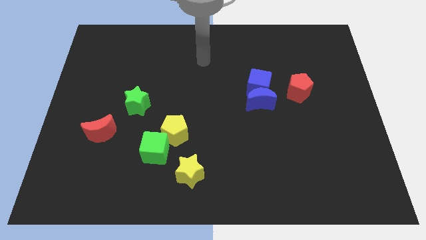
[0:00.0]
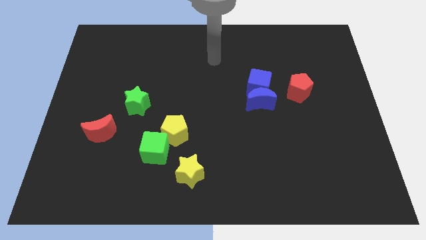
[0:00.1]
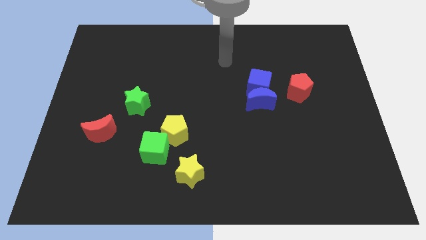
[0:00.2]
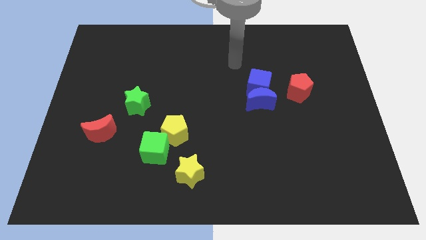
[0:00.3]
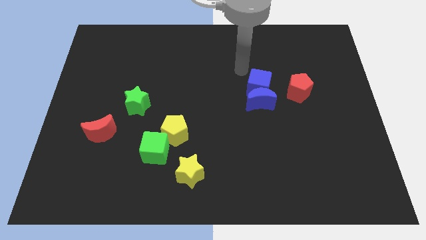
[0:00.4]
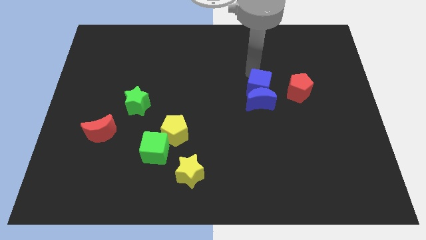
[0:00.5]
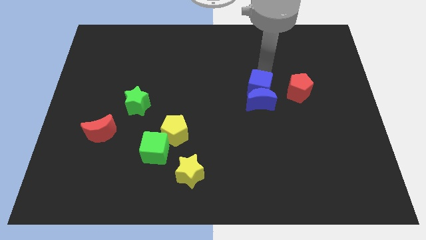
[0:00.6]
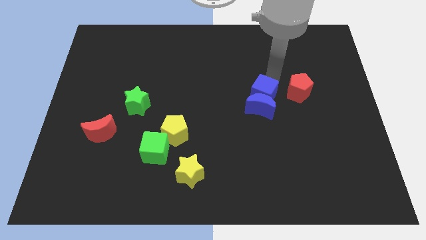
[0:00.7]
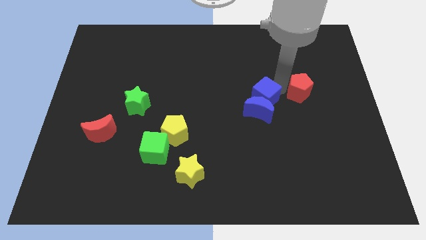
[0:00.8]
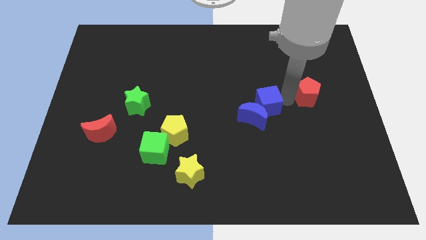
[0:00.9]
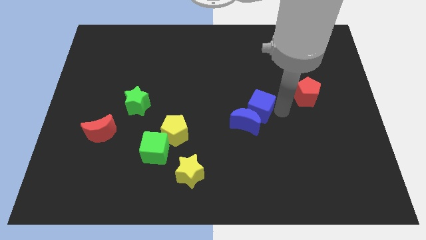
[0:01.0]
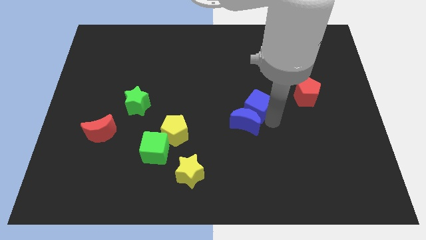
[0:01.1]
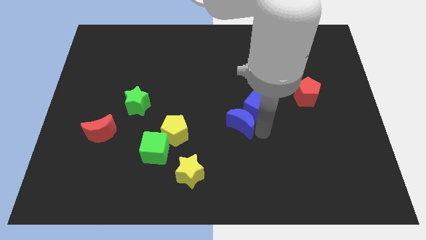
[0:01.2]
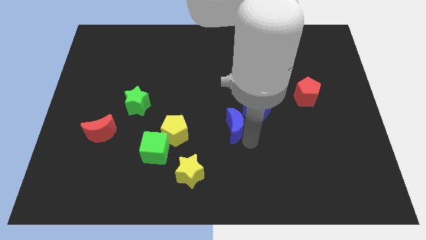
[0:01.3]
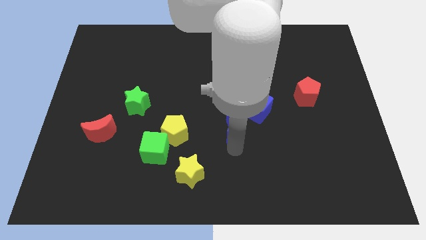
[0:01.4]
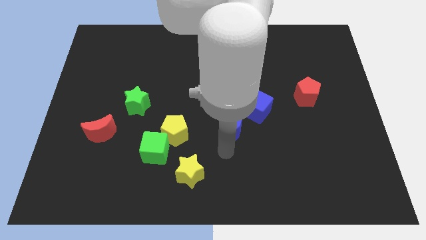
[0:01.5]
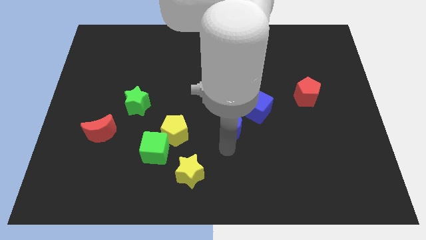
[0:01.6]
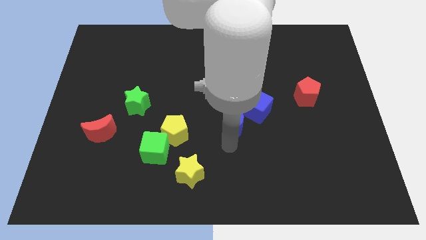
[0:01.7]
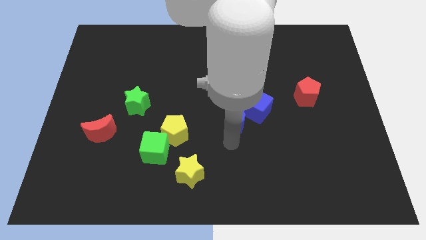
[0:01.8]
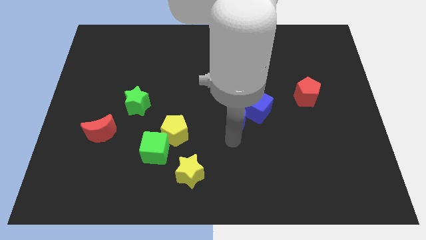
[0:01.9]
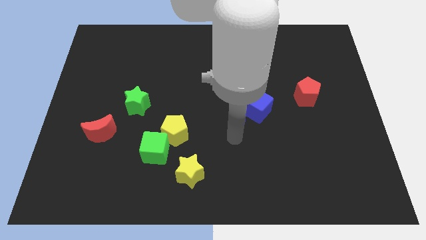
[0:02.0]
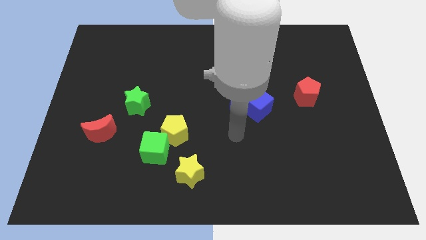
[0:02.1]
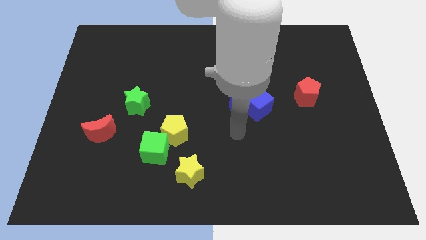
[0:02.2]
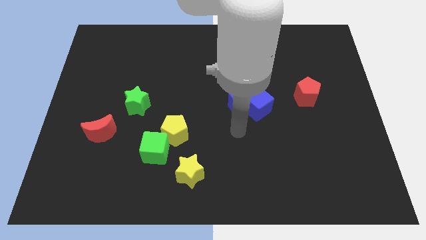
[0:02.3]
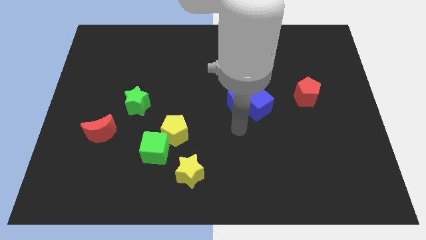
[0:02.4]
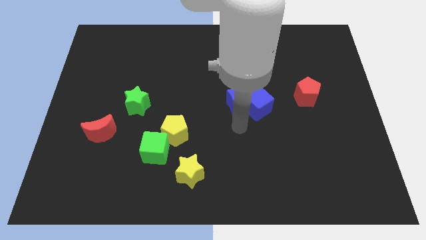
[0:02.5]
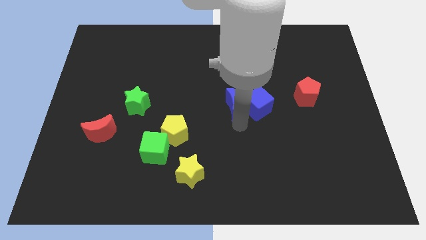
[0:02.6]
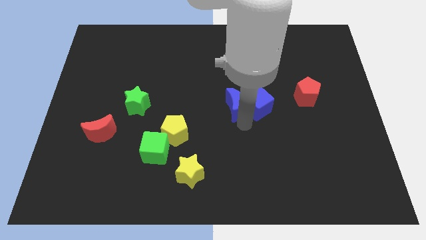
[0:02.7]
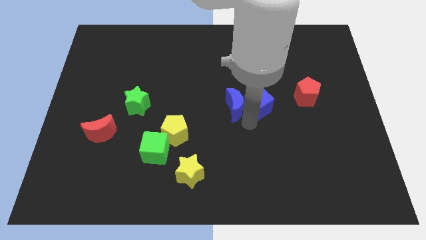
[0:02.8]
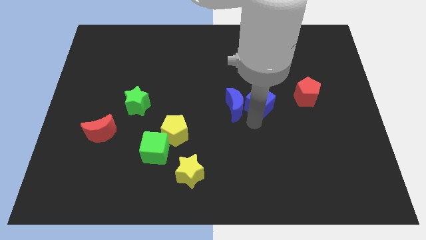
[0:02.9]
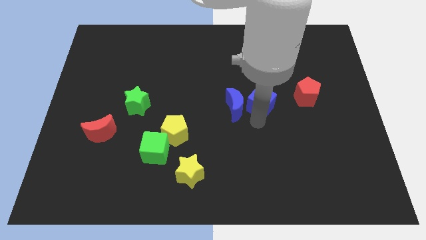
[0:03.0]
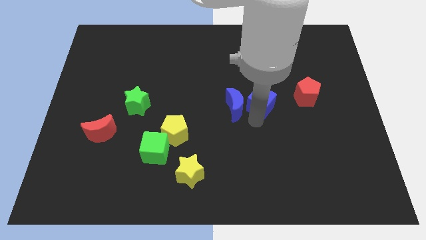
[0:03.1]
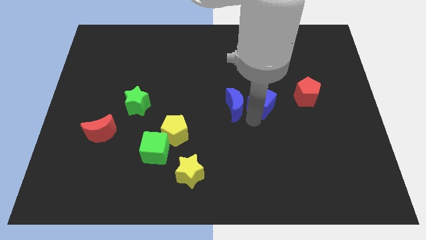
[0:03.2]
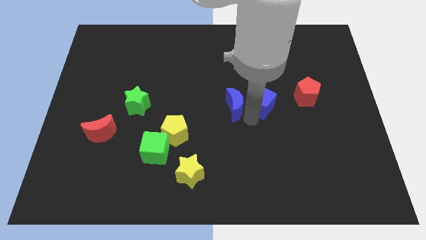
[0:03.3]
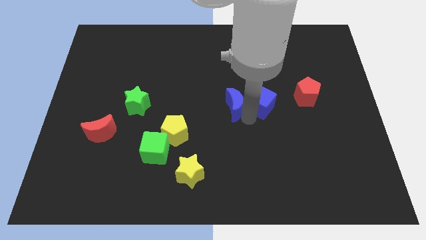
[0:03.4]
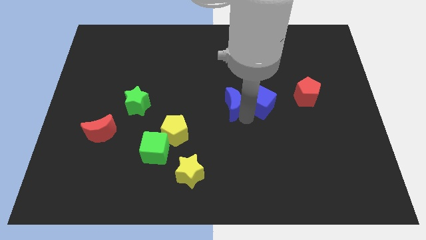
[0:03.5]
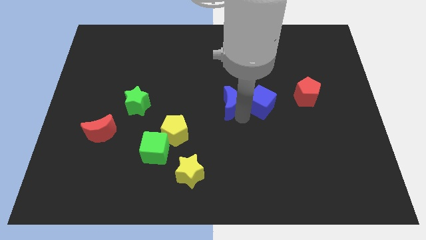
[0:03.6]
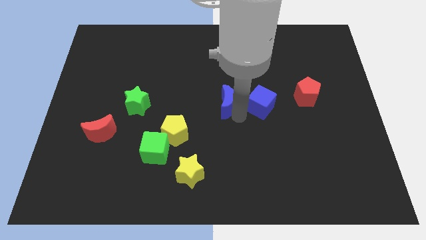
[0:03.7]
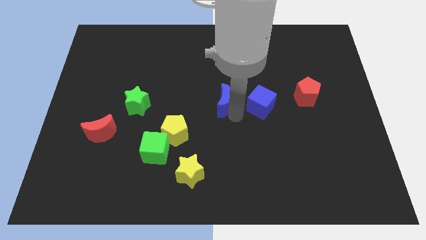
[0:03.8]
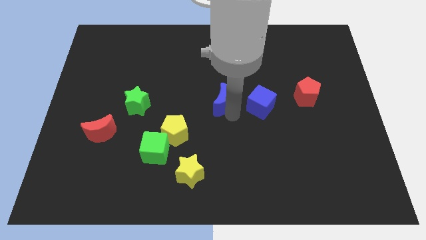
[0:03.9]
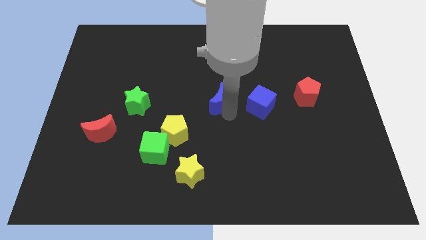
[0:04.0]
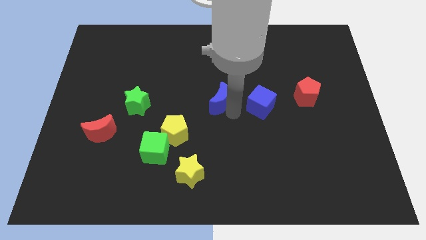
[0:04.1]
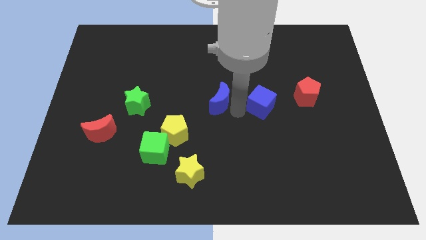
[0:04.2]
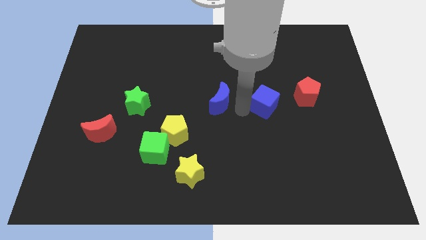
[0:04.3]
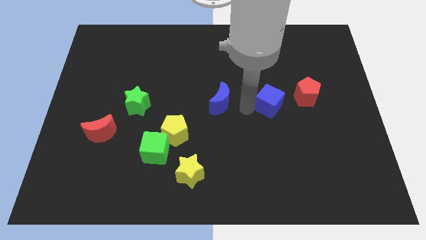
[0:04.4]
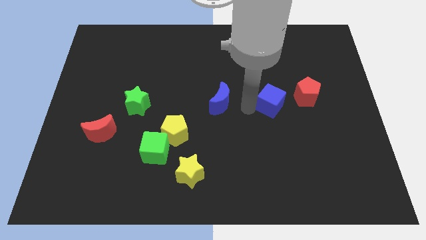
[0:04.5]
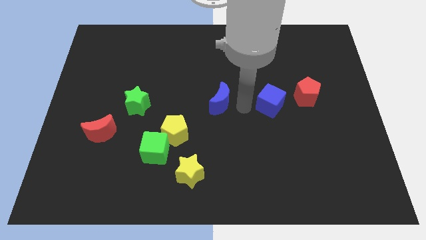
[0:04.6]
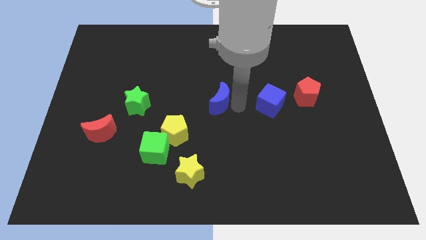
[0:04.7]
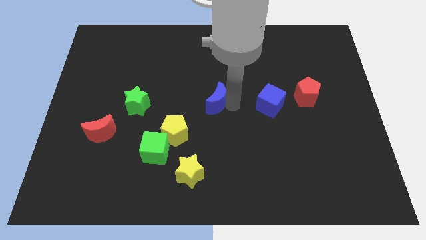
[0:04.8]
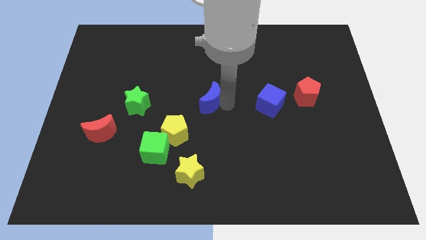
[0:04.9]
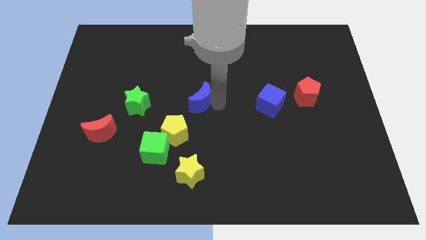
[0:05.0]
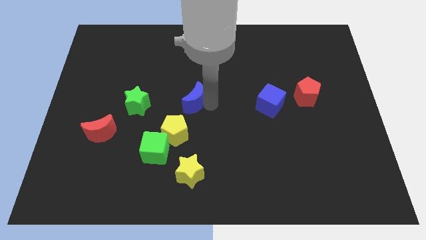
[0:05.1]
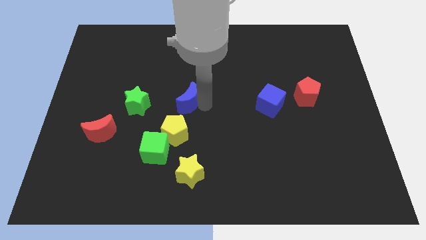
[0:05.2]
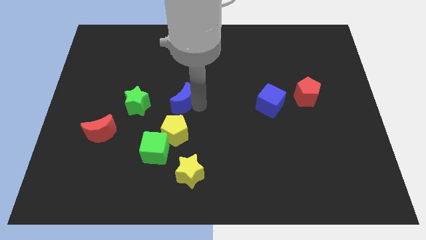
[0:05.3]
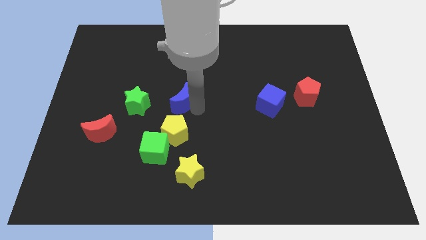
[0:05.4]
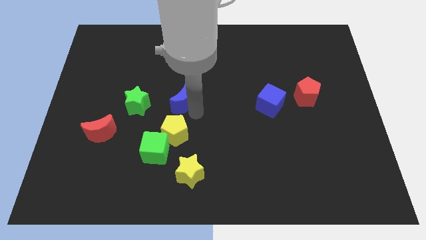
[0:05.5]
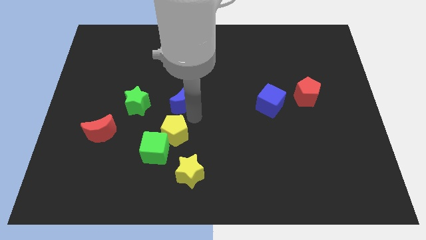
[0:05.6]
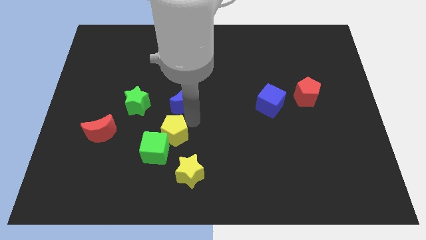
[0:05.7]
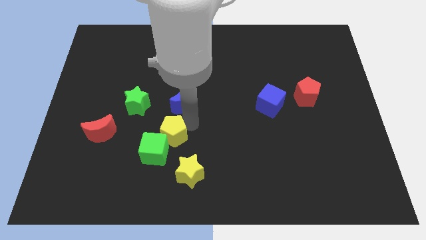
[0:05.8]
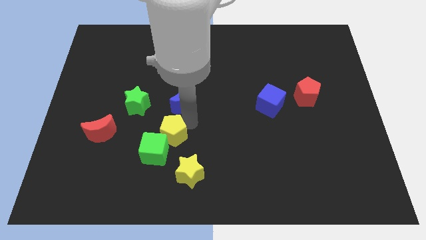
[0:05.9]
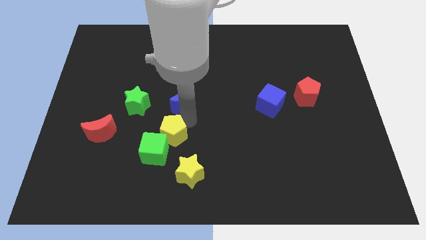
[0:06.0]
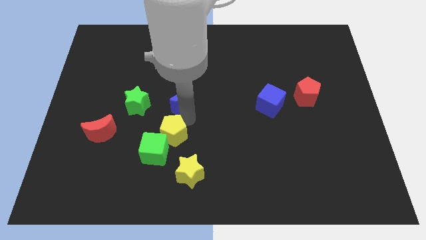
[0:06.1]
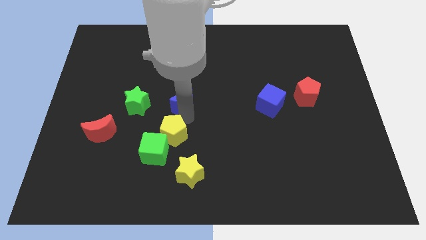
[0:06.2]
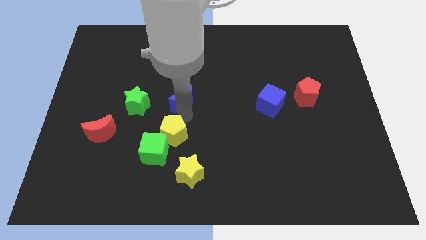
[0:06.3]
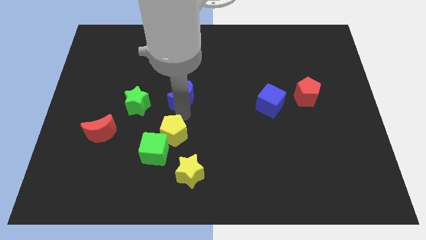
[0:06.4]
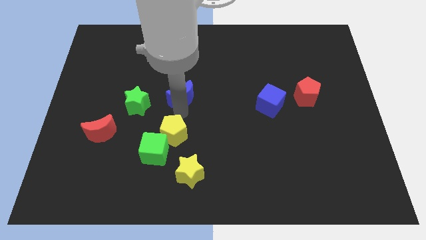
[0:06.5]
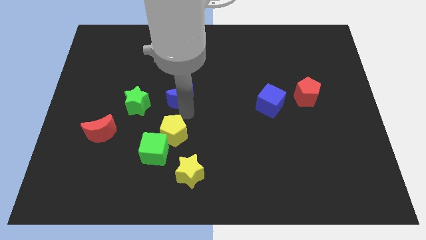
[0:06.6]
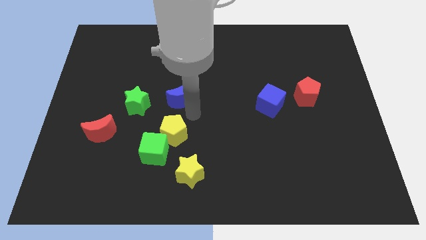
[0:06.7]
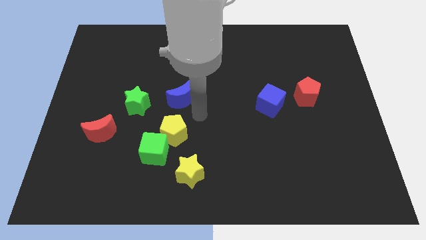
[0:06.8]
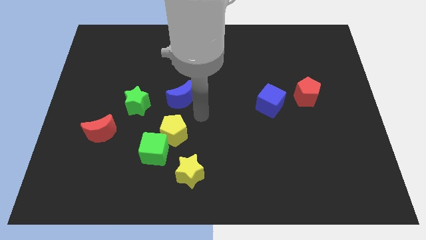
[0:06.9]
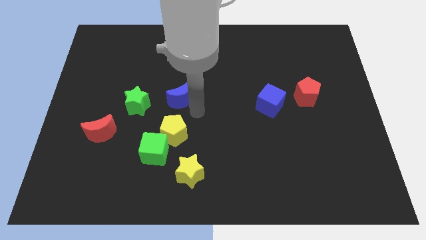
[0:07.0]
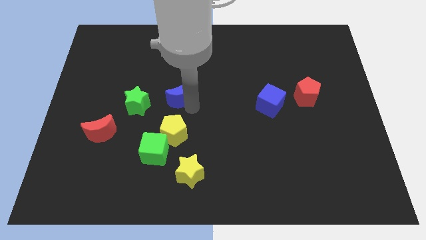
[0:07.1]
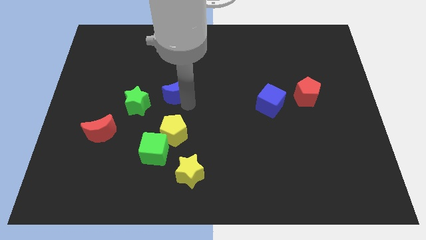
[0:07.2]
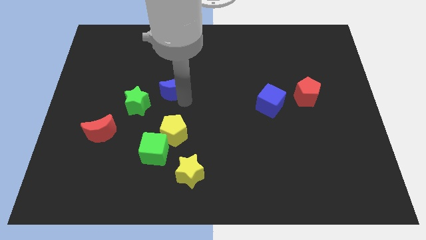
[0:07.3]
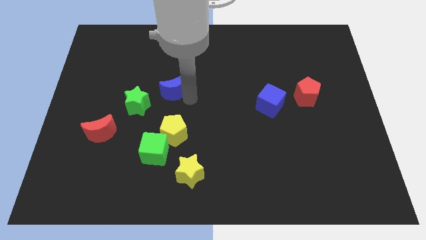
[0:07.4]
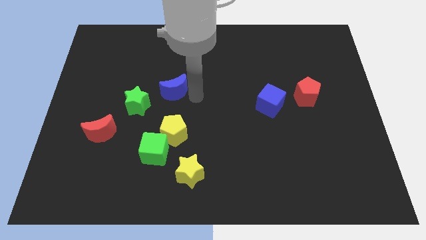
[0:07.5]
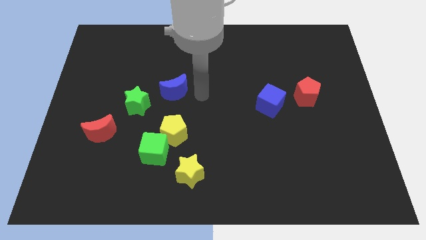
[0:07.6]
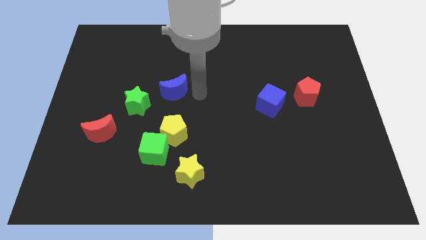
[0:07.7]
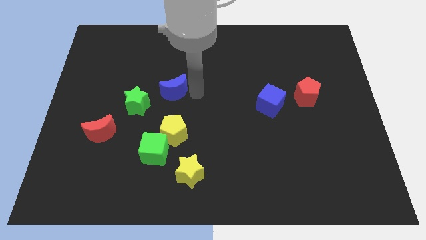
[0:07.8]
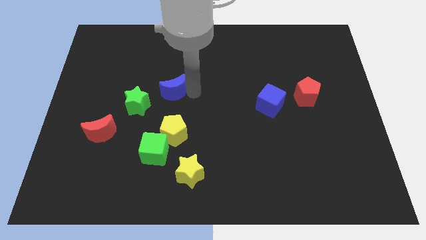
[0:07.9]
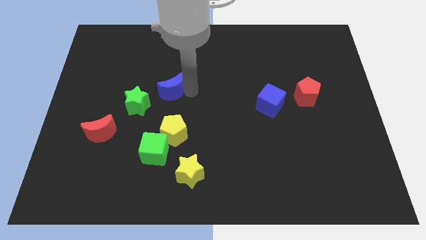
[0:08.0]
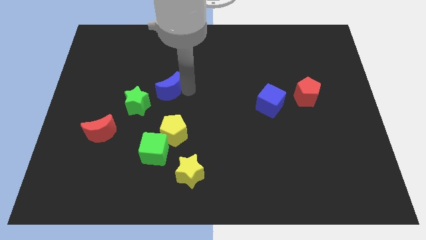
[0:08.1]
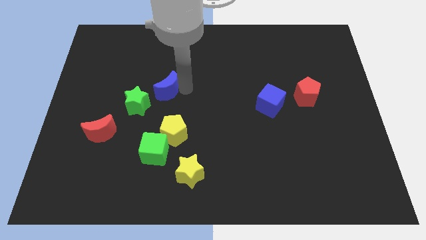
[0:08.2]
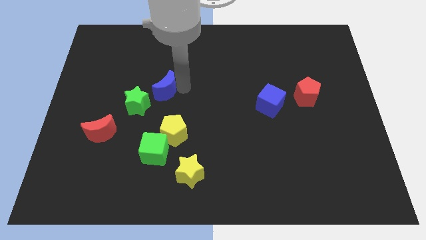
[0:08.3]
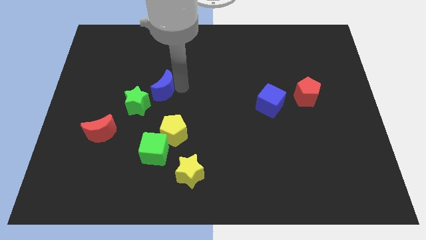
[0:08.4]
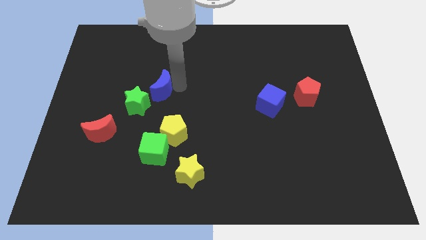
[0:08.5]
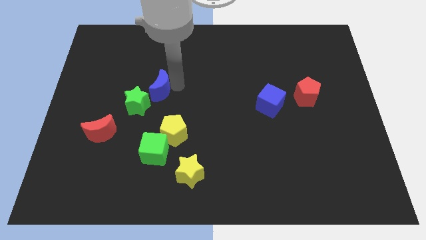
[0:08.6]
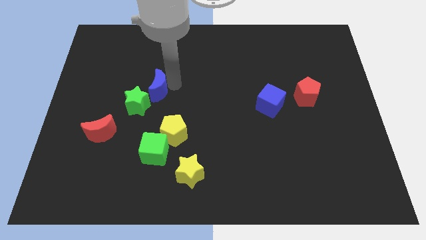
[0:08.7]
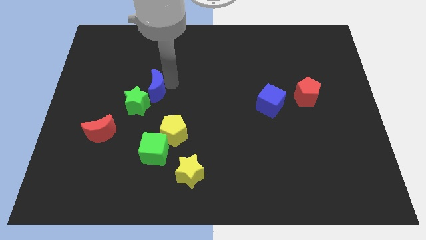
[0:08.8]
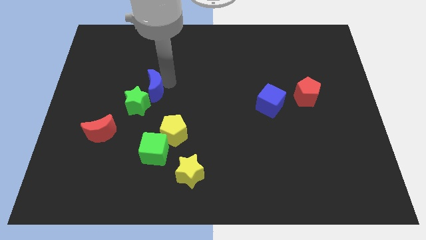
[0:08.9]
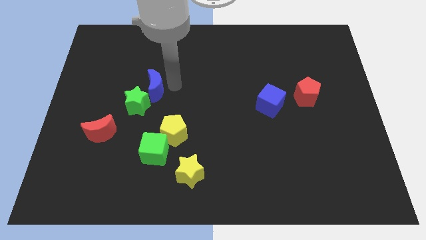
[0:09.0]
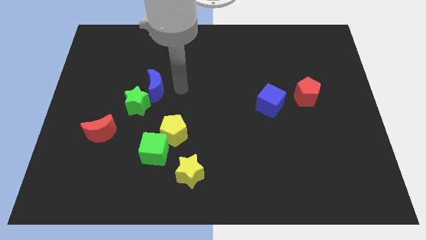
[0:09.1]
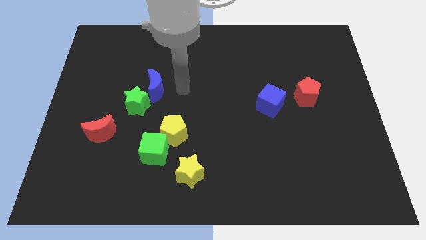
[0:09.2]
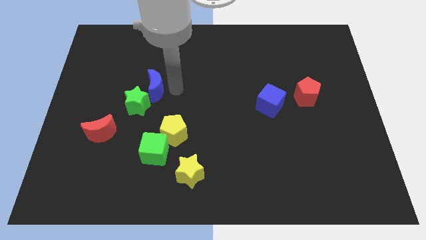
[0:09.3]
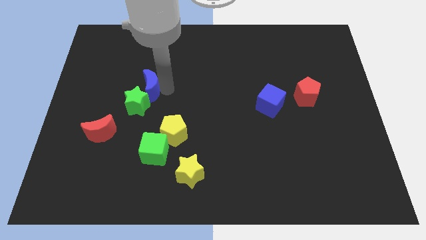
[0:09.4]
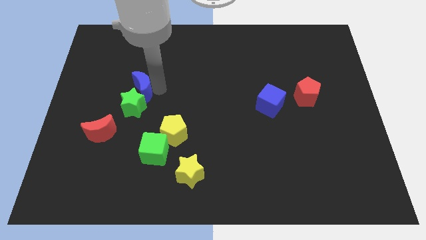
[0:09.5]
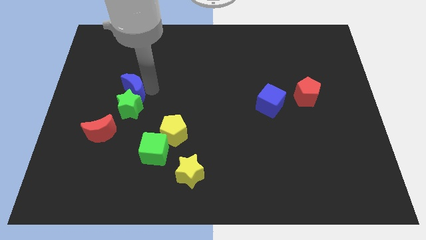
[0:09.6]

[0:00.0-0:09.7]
move the blue moon to the top left of the green star
